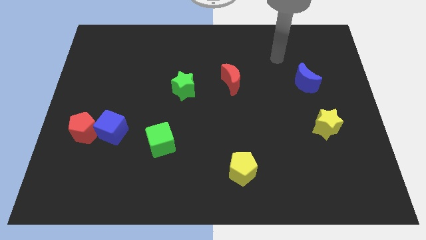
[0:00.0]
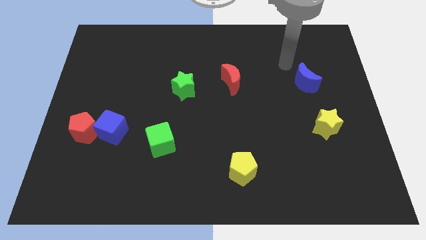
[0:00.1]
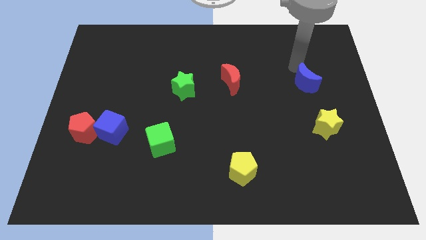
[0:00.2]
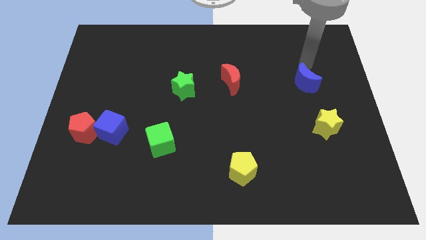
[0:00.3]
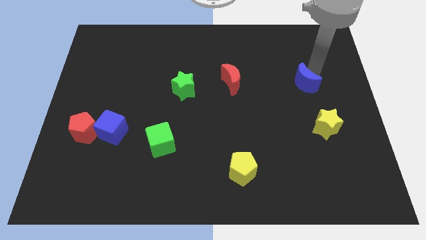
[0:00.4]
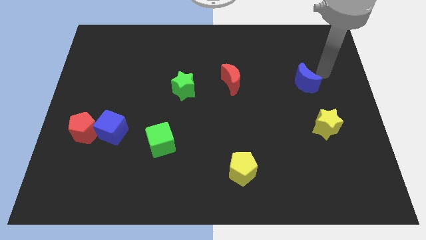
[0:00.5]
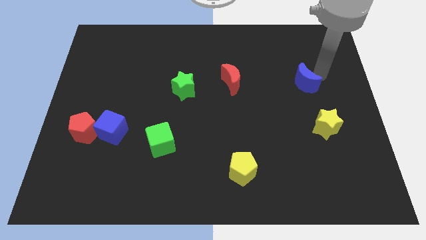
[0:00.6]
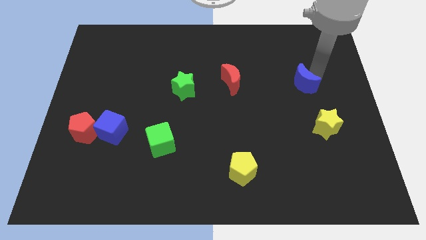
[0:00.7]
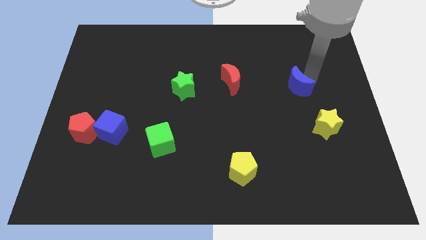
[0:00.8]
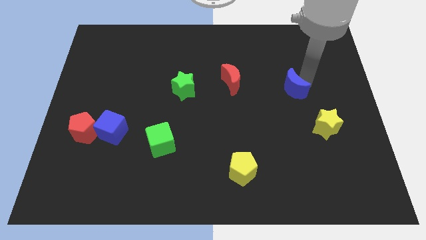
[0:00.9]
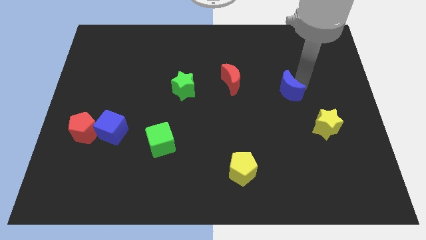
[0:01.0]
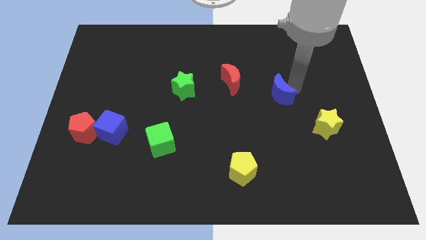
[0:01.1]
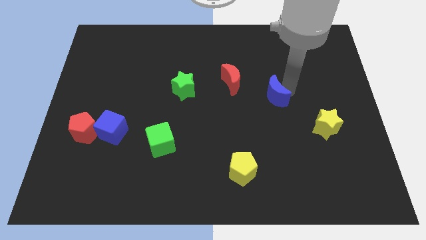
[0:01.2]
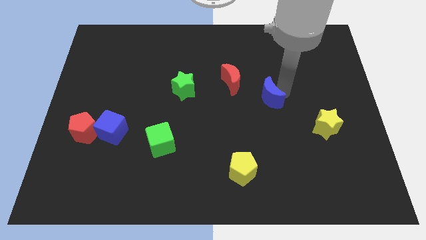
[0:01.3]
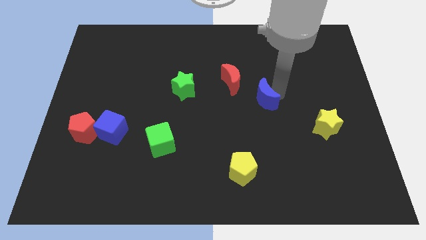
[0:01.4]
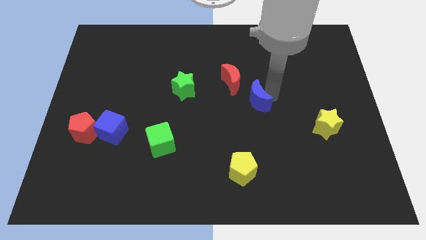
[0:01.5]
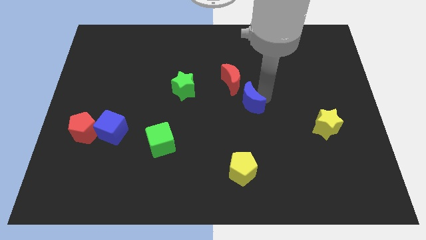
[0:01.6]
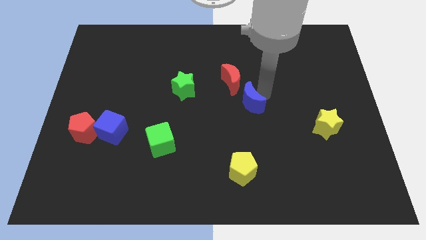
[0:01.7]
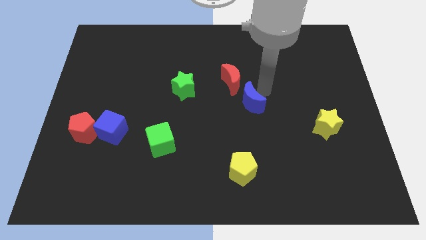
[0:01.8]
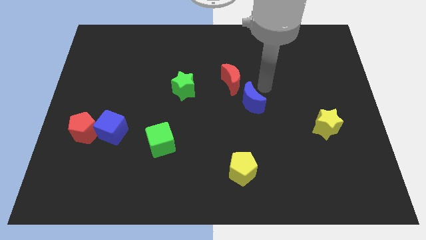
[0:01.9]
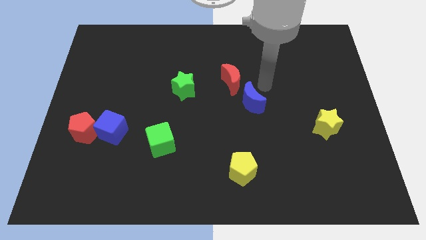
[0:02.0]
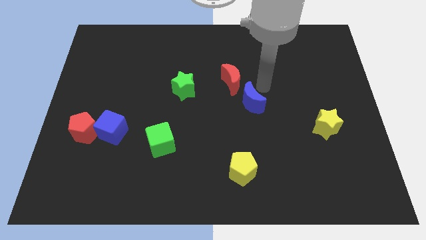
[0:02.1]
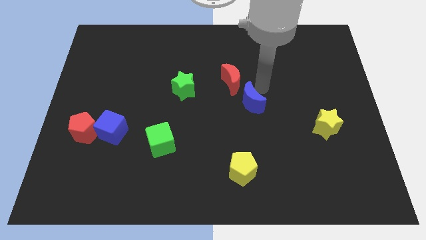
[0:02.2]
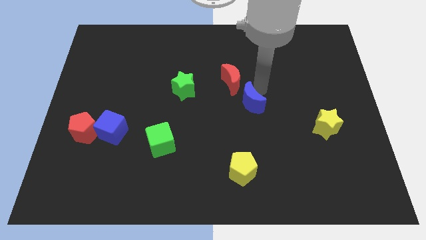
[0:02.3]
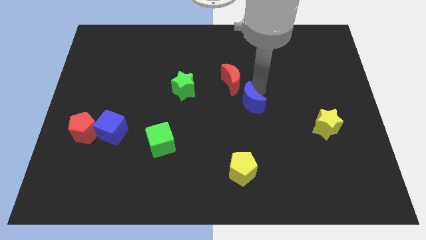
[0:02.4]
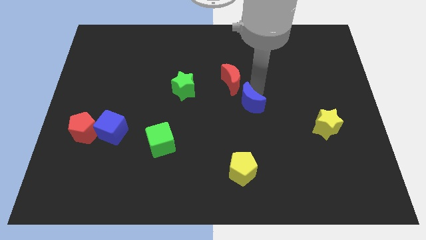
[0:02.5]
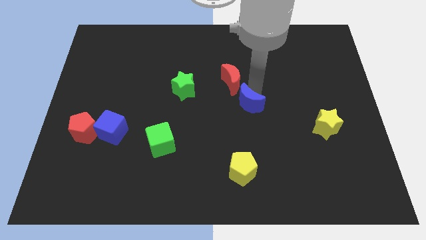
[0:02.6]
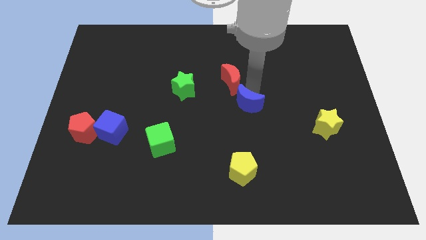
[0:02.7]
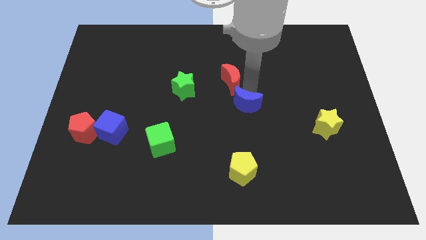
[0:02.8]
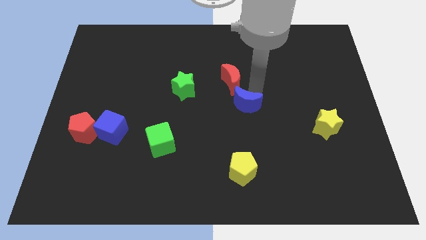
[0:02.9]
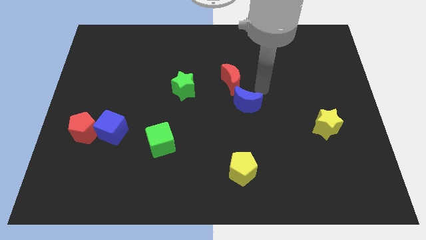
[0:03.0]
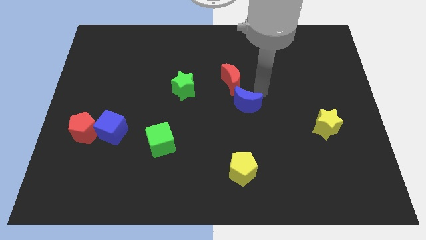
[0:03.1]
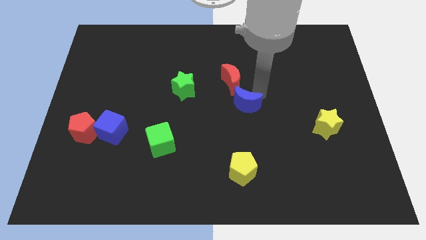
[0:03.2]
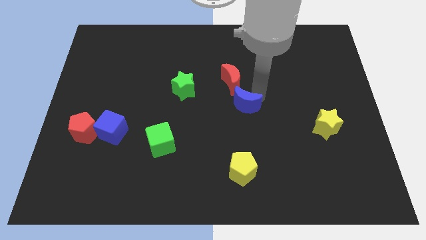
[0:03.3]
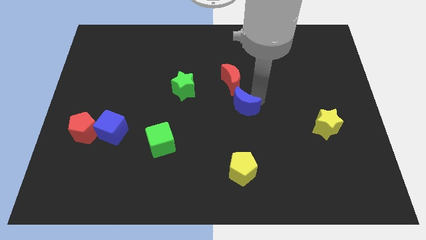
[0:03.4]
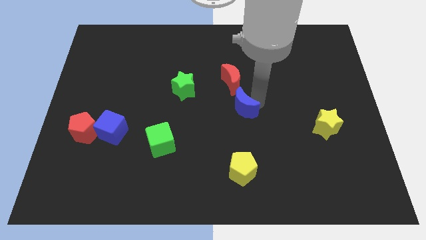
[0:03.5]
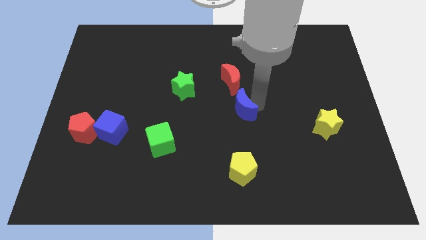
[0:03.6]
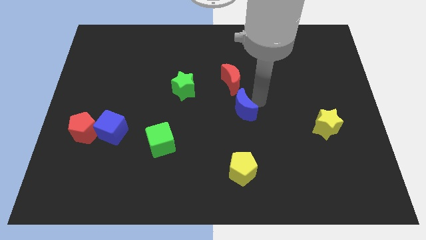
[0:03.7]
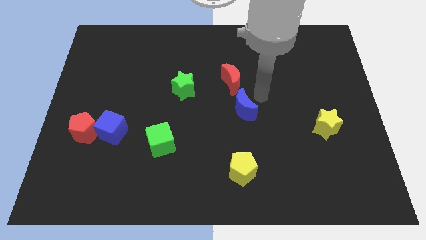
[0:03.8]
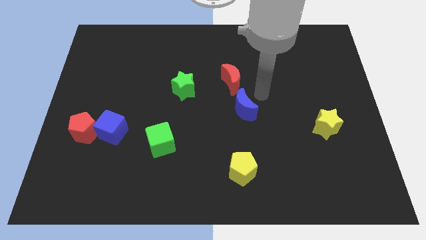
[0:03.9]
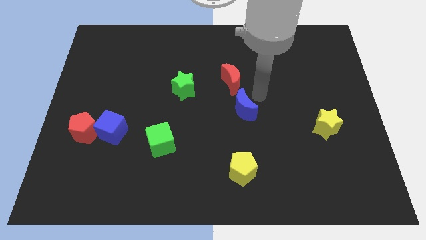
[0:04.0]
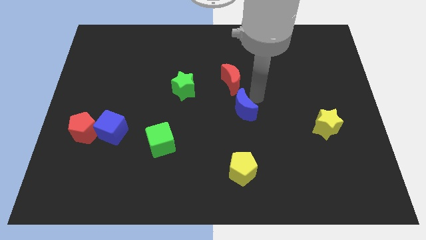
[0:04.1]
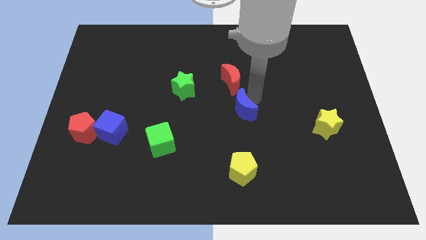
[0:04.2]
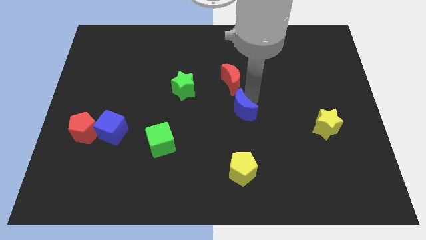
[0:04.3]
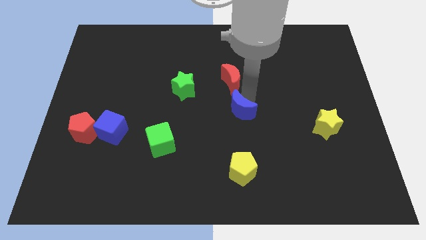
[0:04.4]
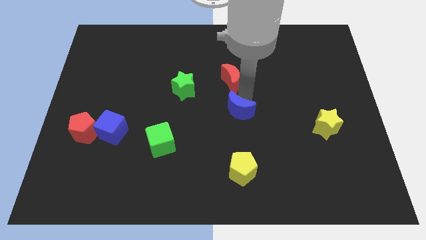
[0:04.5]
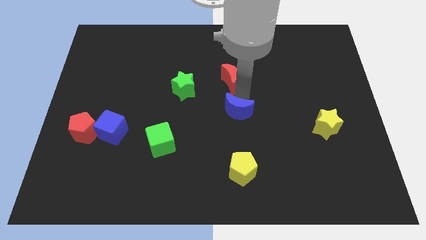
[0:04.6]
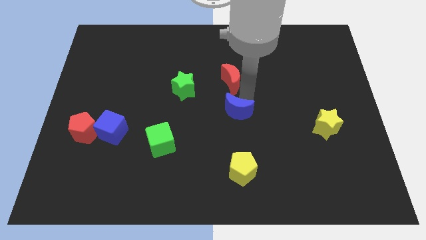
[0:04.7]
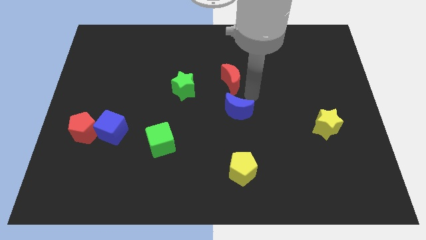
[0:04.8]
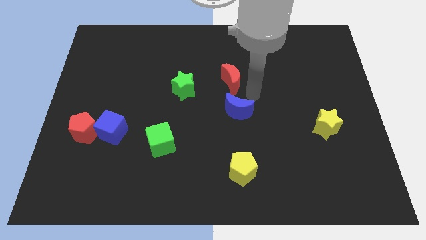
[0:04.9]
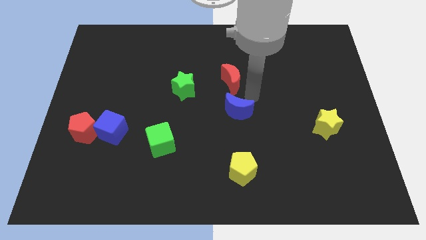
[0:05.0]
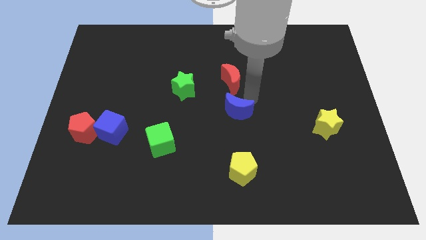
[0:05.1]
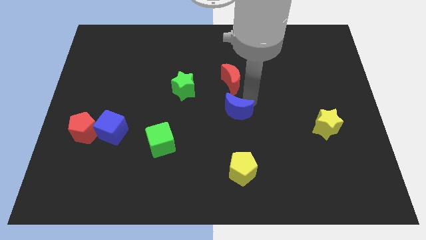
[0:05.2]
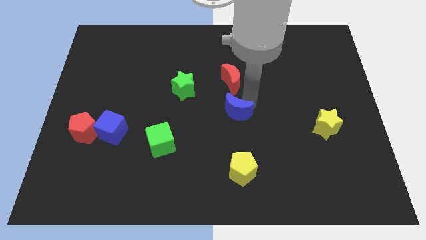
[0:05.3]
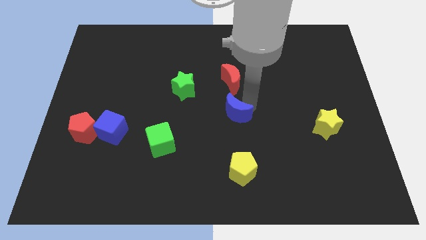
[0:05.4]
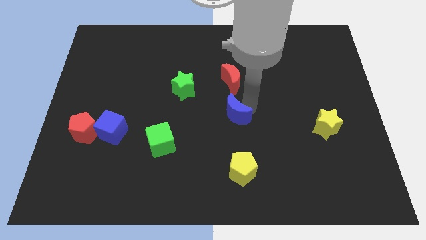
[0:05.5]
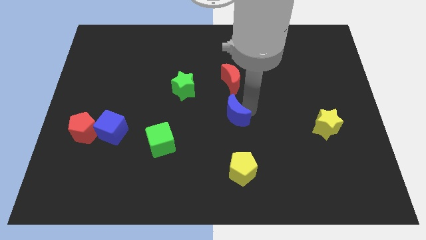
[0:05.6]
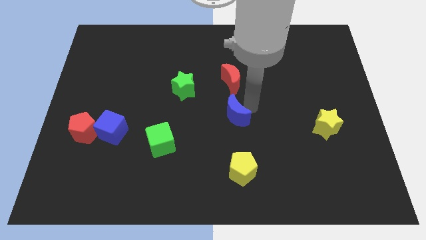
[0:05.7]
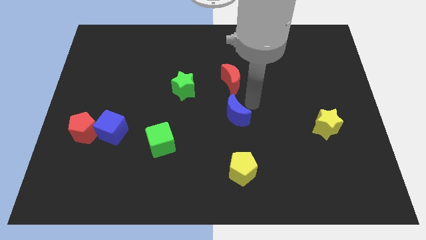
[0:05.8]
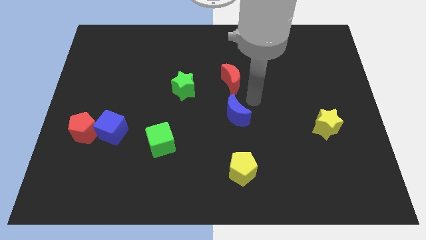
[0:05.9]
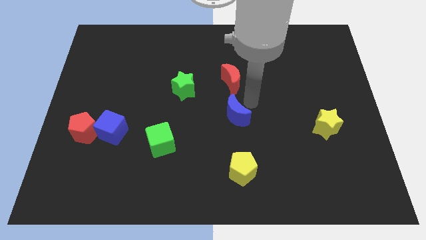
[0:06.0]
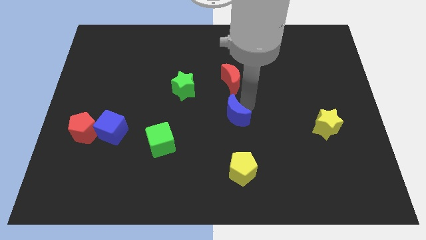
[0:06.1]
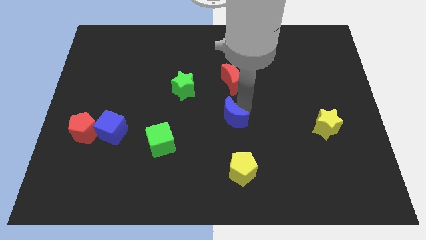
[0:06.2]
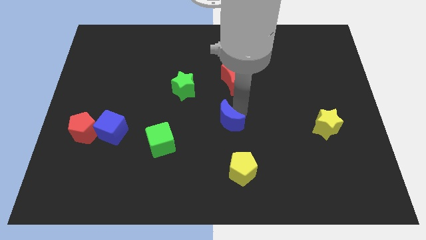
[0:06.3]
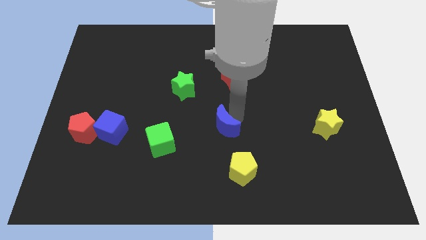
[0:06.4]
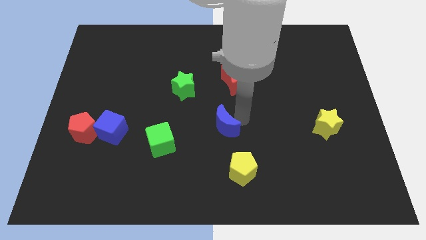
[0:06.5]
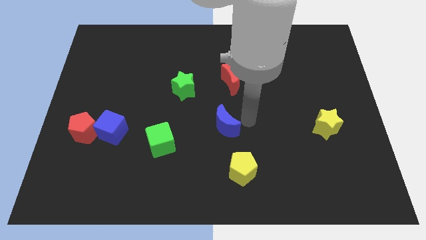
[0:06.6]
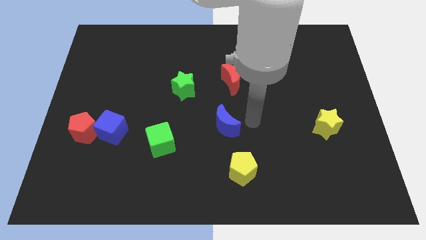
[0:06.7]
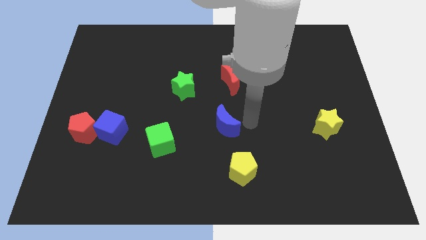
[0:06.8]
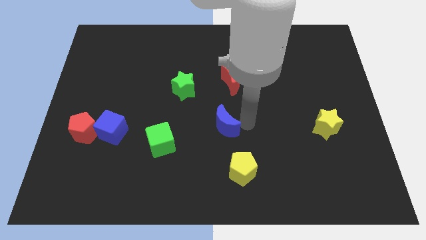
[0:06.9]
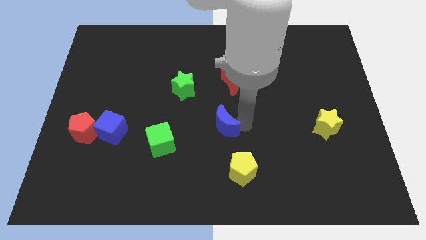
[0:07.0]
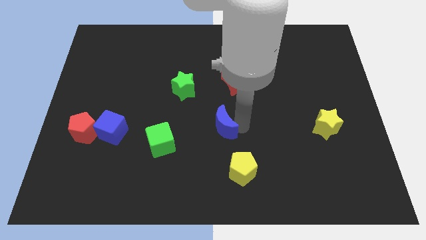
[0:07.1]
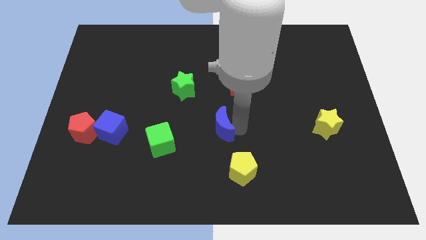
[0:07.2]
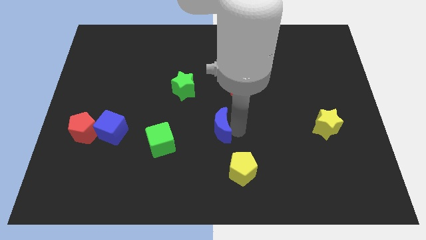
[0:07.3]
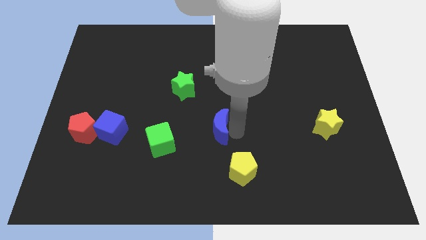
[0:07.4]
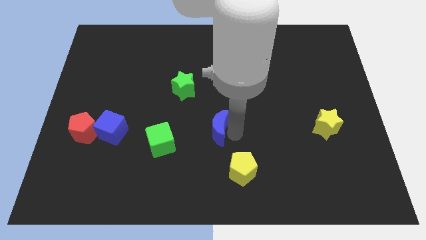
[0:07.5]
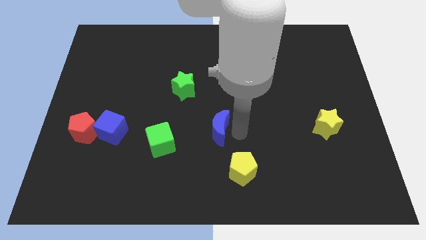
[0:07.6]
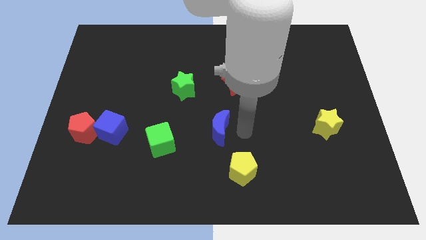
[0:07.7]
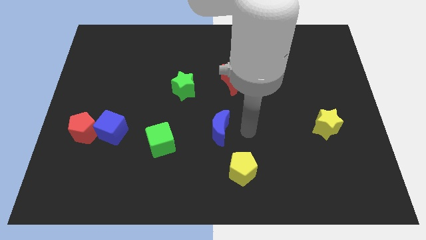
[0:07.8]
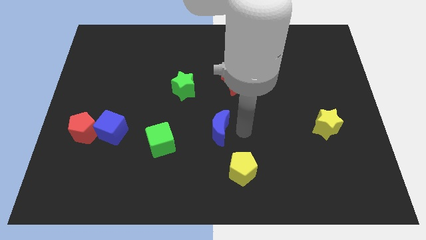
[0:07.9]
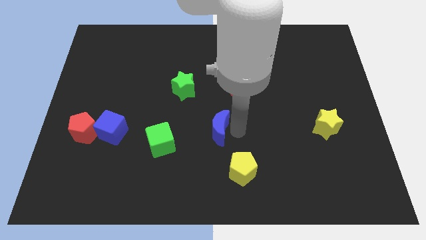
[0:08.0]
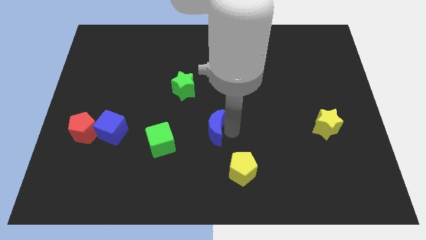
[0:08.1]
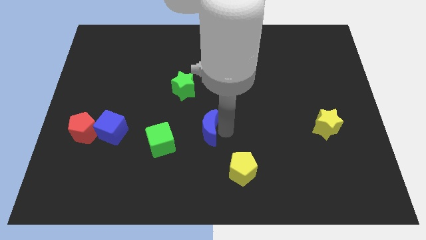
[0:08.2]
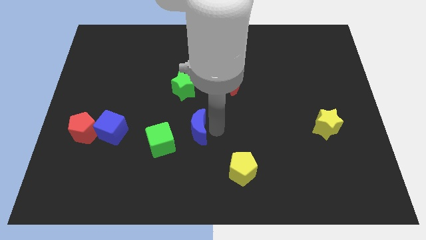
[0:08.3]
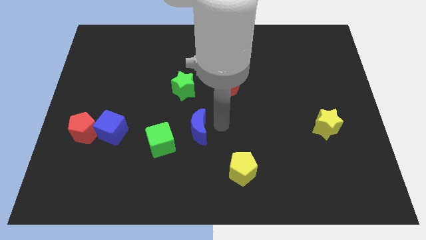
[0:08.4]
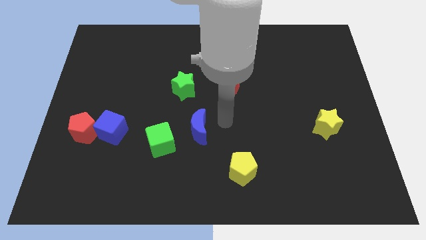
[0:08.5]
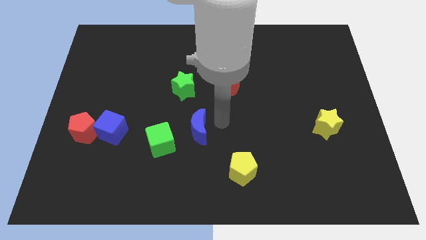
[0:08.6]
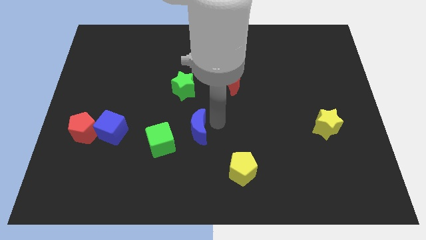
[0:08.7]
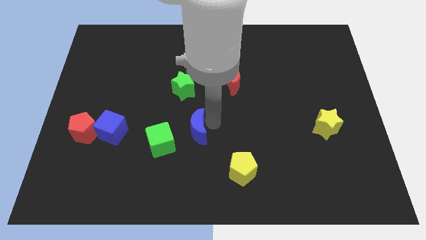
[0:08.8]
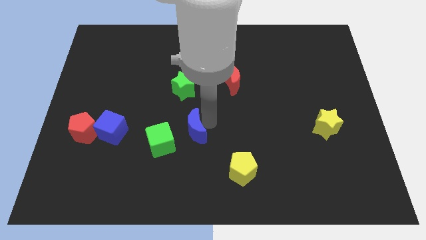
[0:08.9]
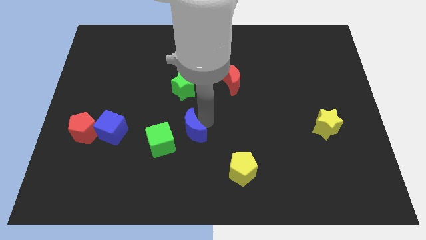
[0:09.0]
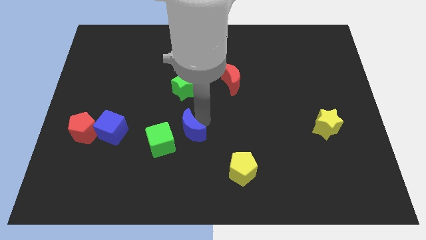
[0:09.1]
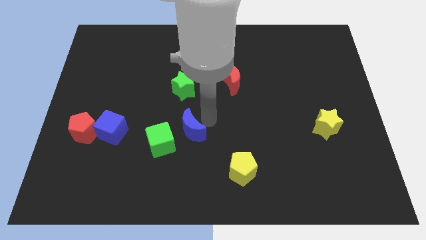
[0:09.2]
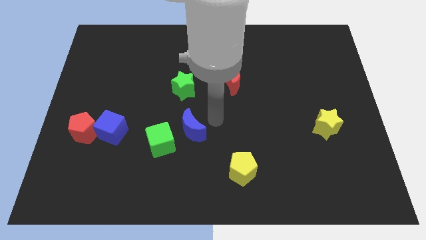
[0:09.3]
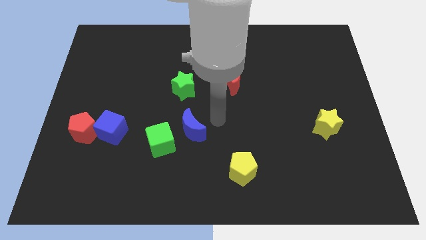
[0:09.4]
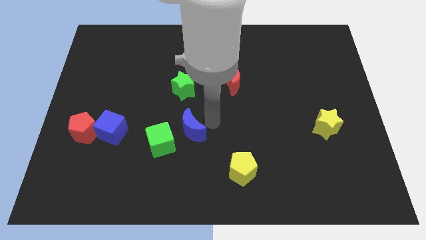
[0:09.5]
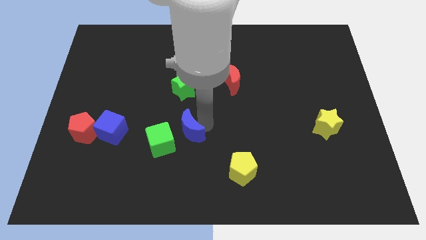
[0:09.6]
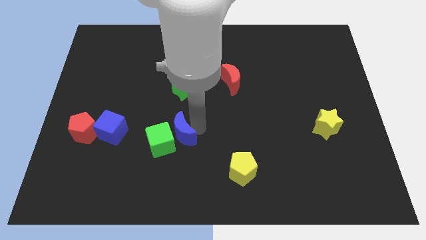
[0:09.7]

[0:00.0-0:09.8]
push the blue moon towards the green cube
